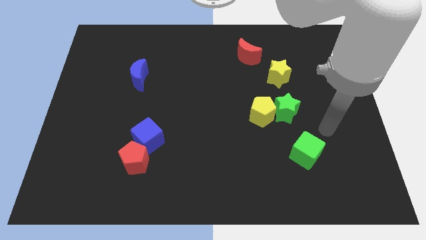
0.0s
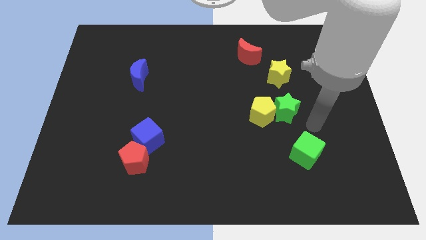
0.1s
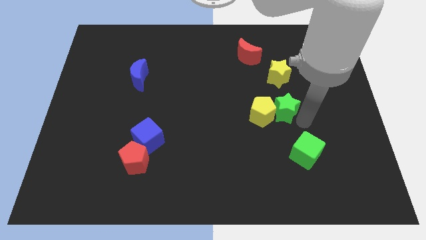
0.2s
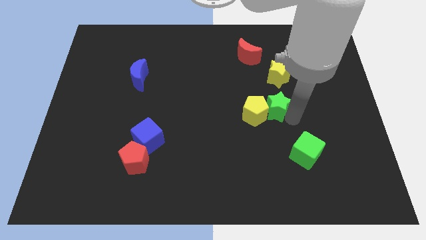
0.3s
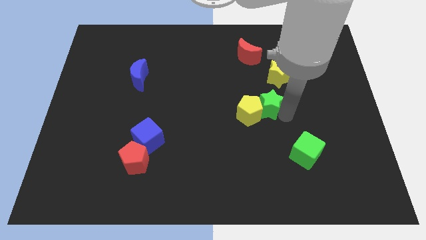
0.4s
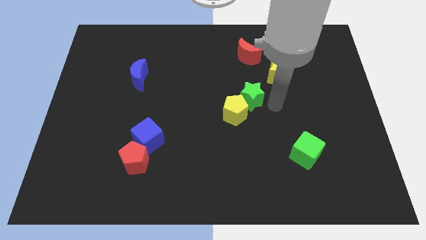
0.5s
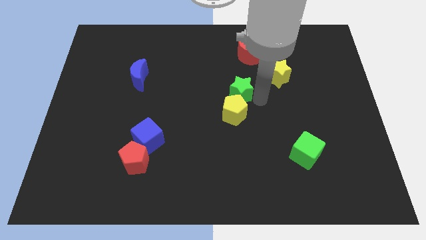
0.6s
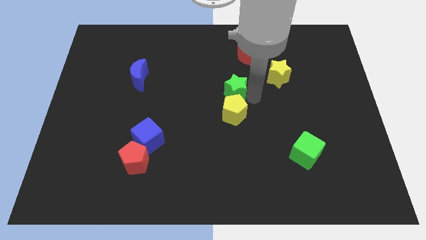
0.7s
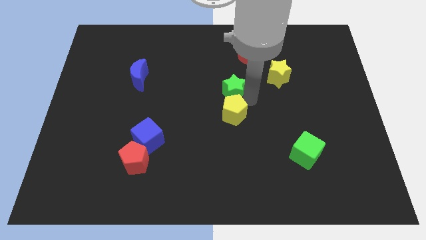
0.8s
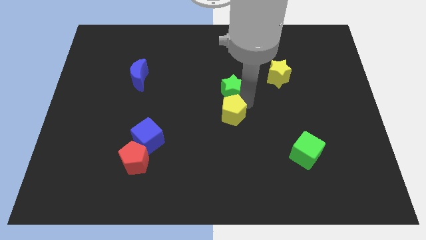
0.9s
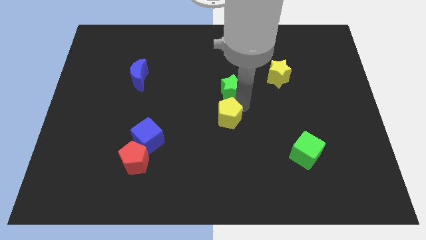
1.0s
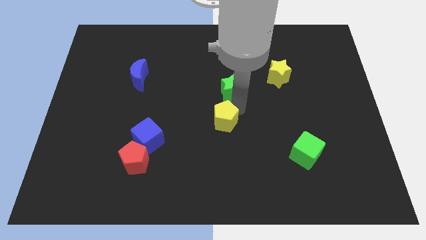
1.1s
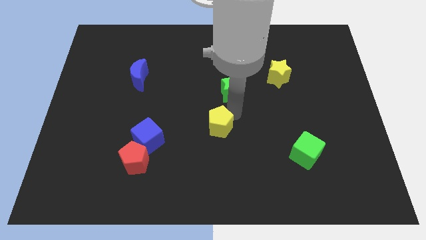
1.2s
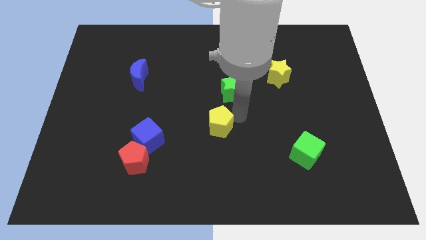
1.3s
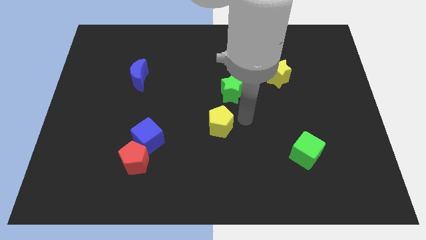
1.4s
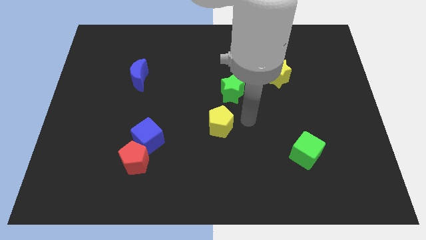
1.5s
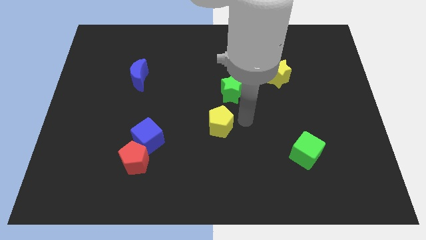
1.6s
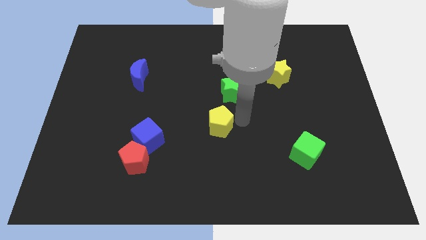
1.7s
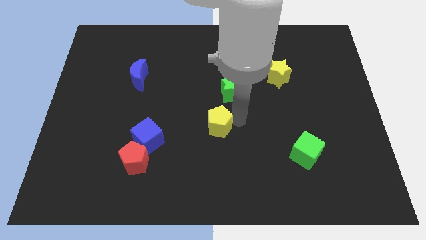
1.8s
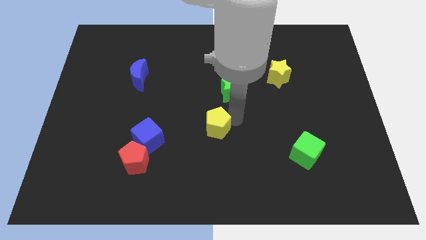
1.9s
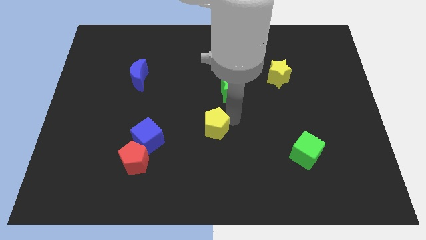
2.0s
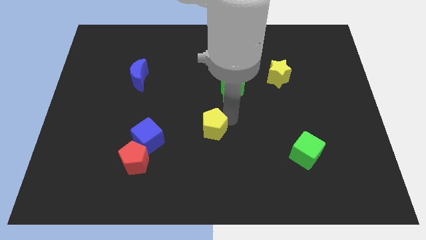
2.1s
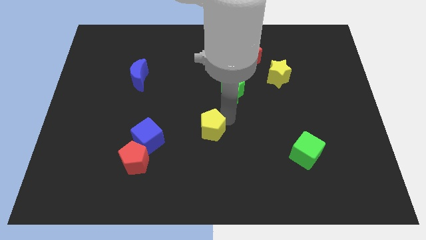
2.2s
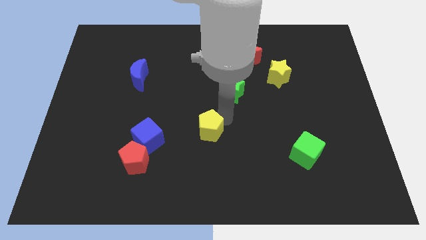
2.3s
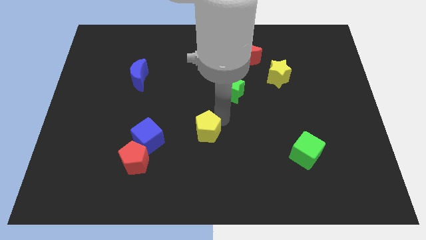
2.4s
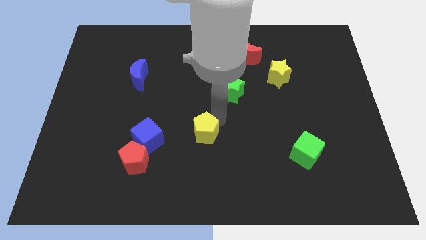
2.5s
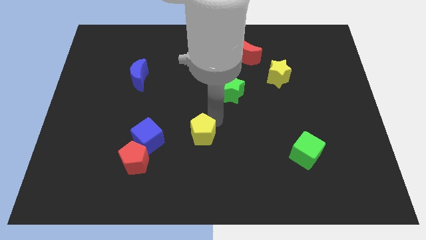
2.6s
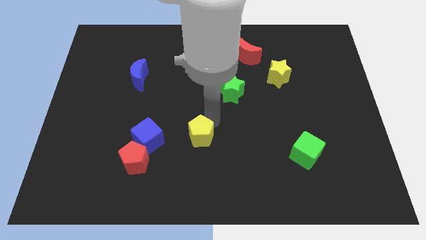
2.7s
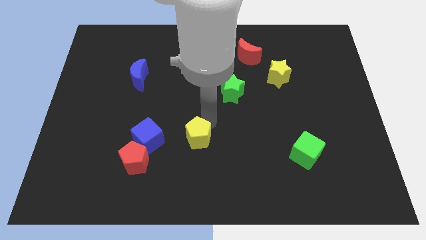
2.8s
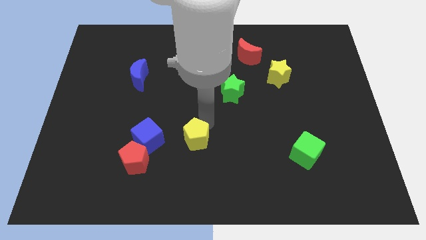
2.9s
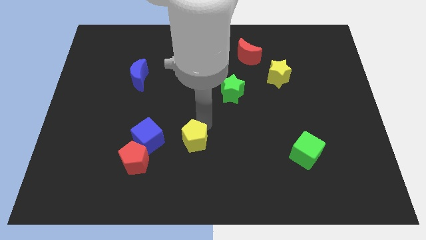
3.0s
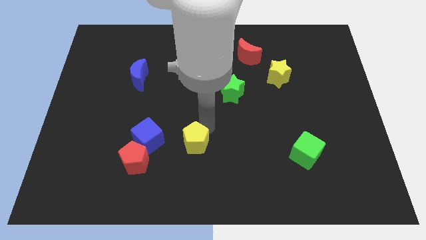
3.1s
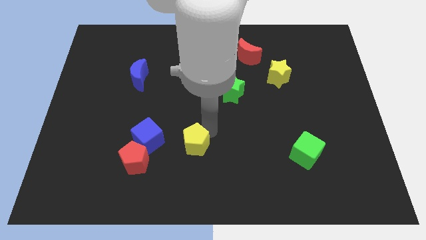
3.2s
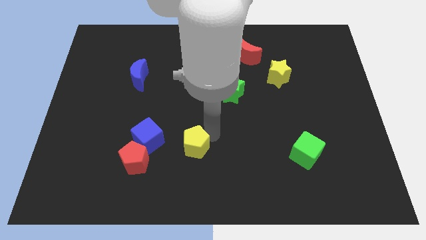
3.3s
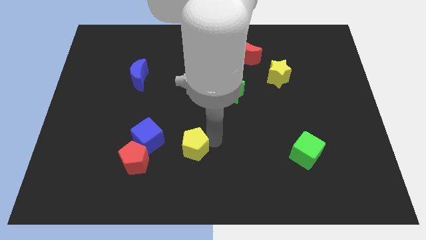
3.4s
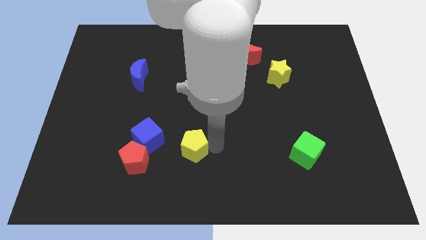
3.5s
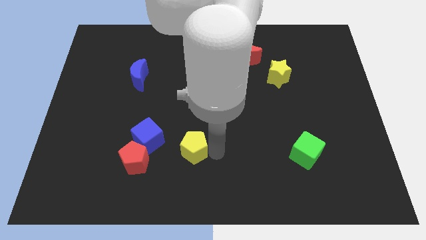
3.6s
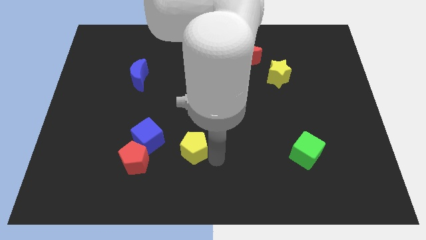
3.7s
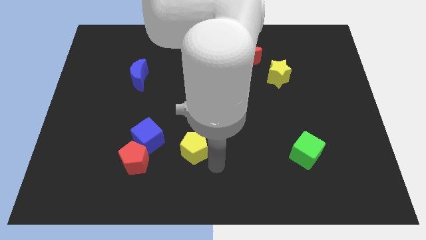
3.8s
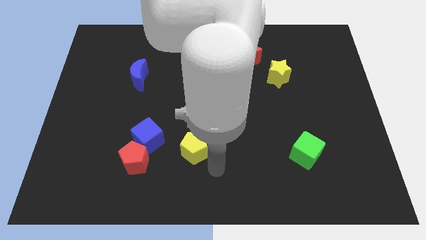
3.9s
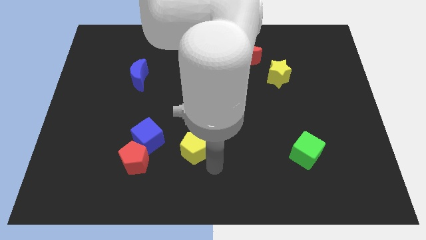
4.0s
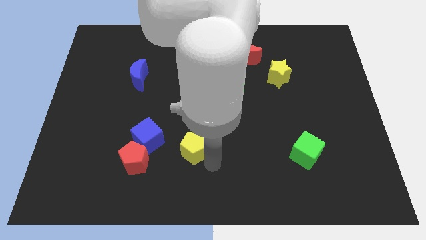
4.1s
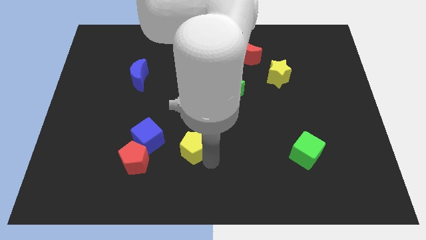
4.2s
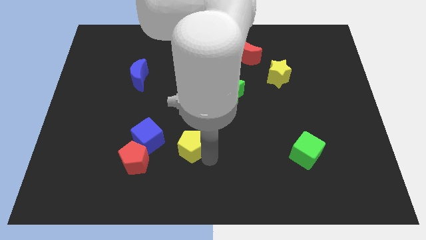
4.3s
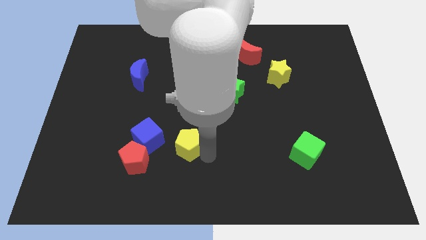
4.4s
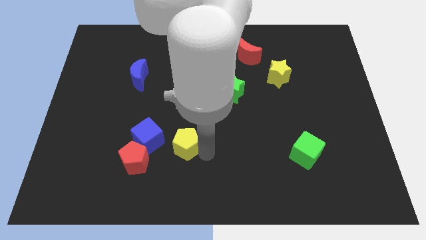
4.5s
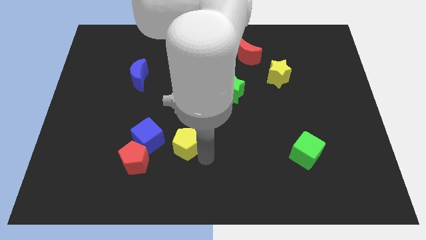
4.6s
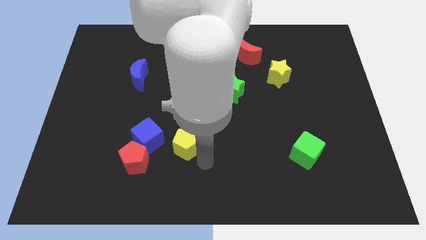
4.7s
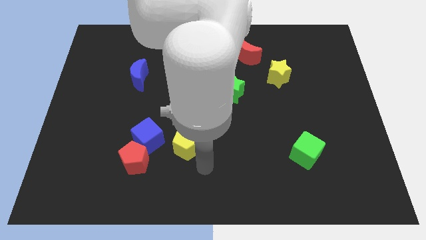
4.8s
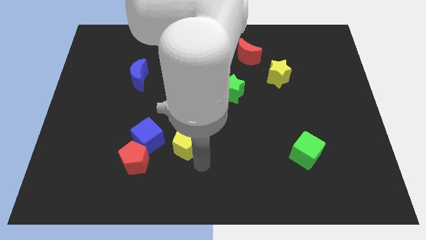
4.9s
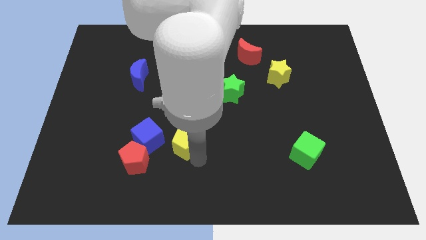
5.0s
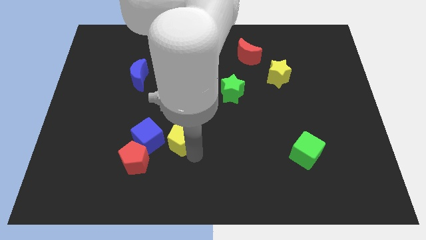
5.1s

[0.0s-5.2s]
slide the yellow pentagon diagonally up and to the right of the red pentagon

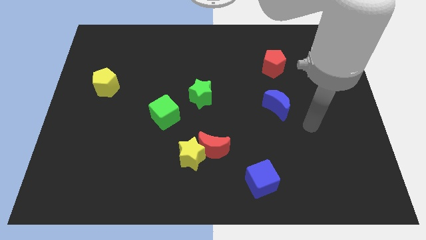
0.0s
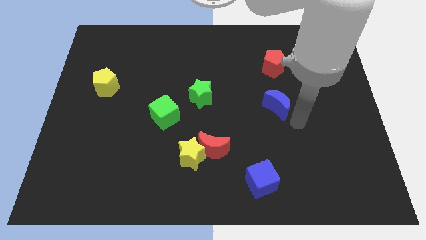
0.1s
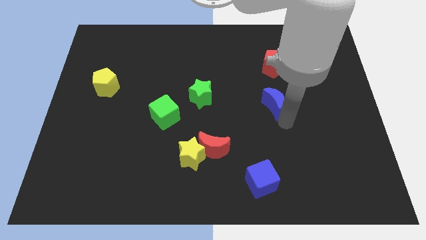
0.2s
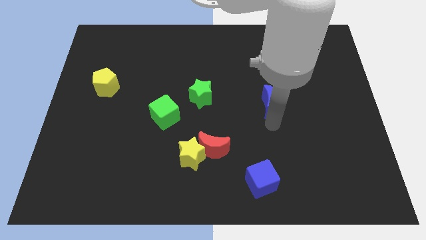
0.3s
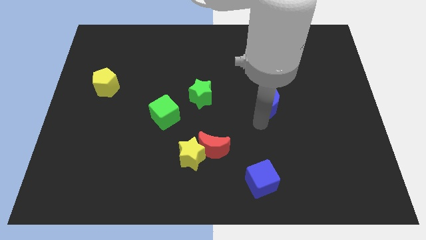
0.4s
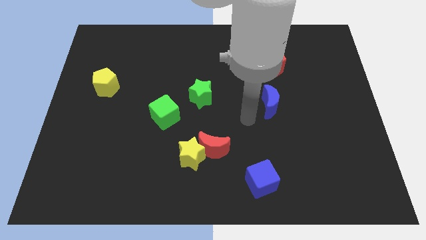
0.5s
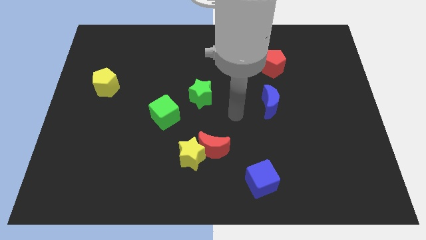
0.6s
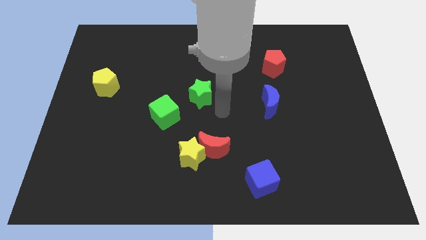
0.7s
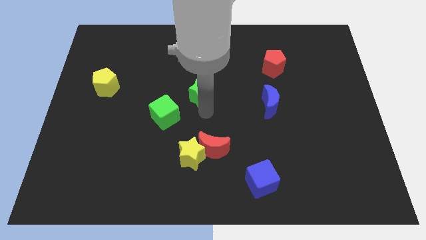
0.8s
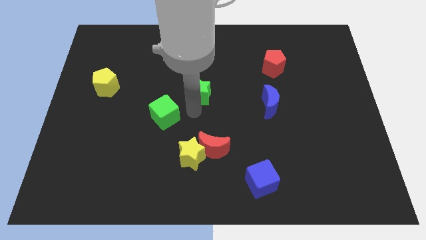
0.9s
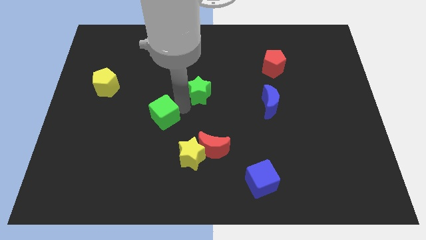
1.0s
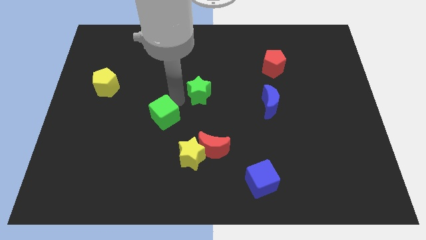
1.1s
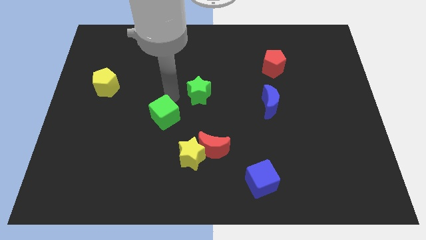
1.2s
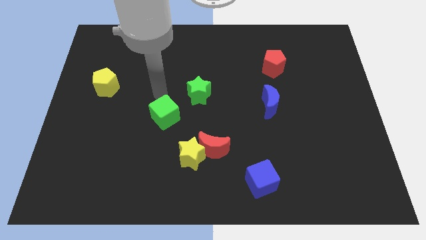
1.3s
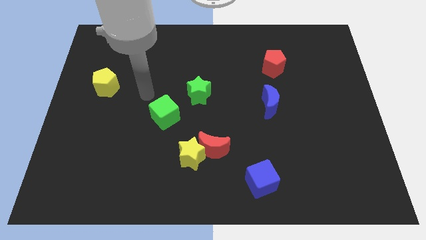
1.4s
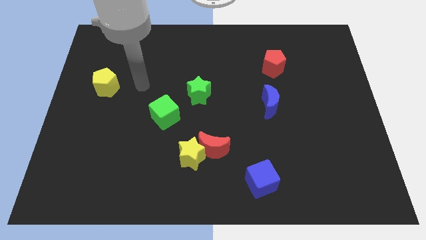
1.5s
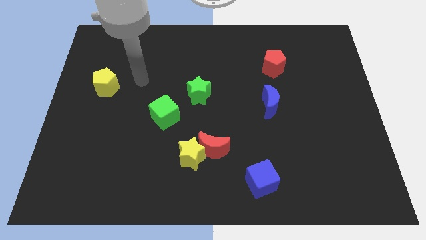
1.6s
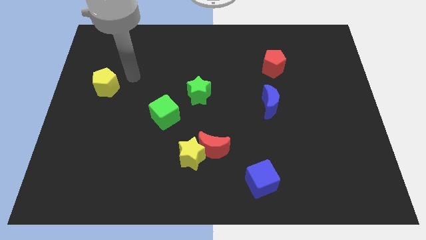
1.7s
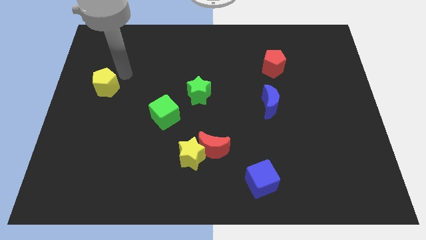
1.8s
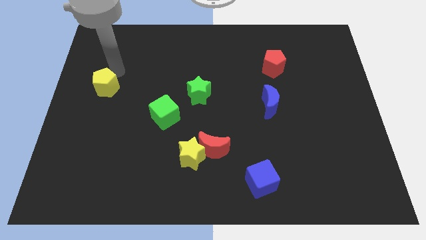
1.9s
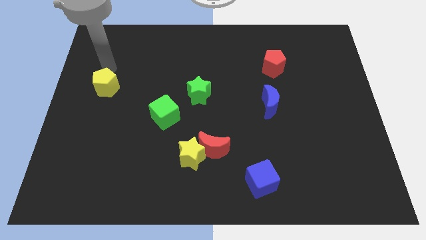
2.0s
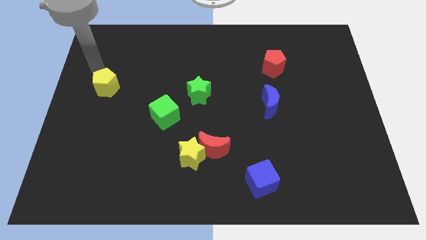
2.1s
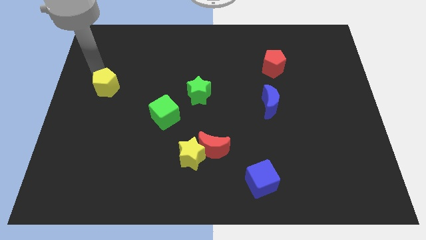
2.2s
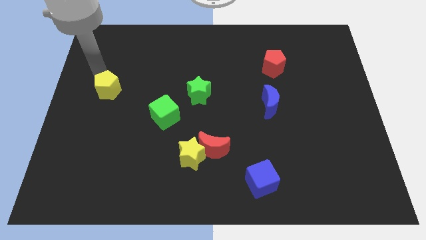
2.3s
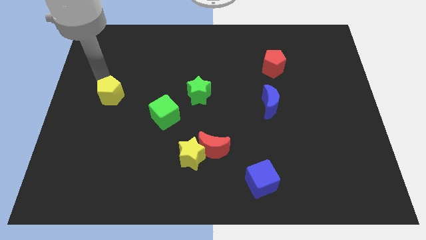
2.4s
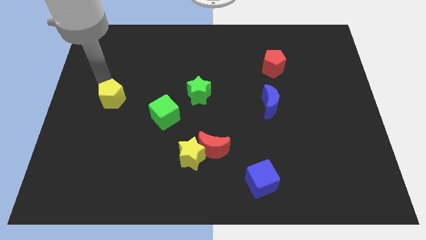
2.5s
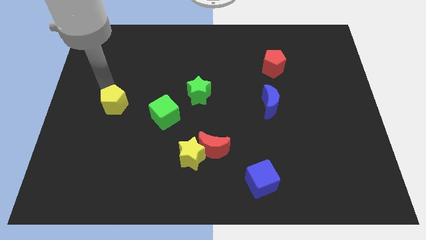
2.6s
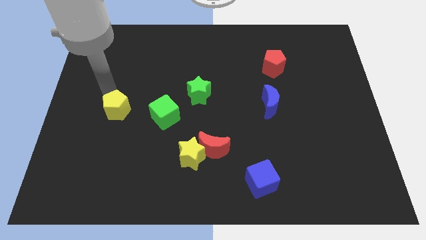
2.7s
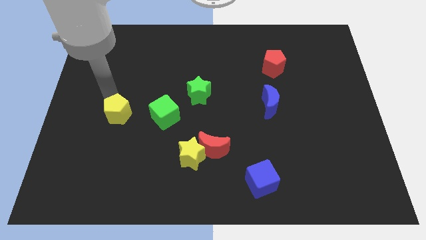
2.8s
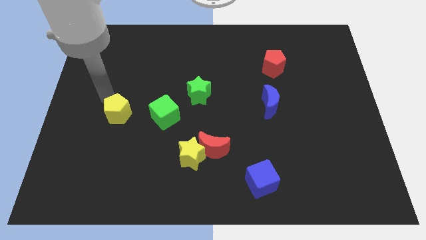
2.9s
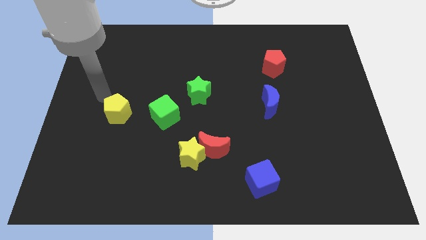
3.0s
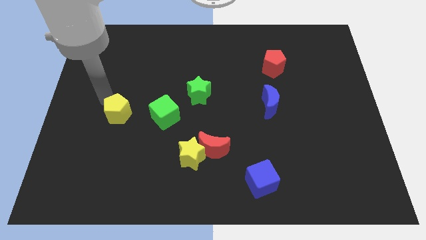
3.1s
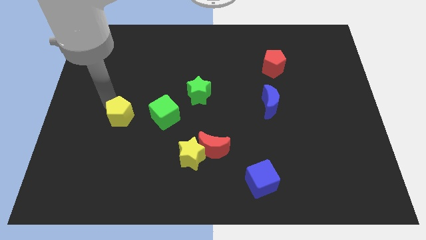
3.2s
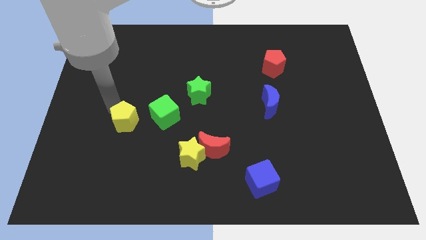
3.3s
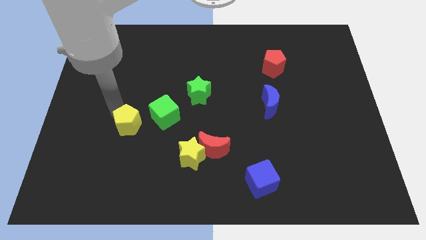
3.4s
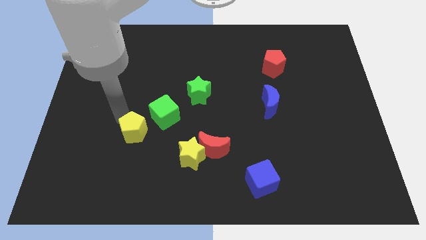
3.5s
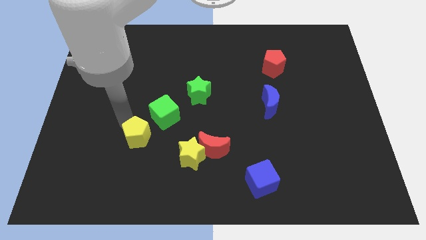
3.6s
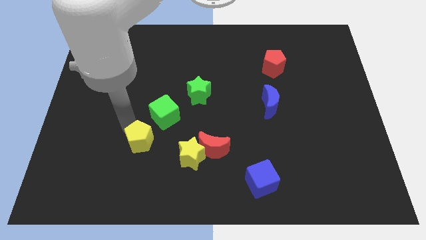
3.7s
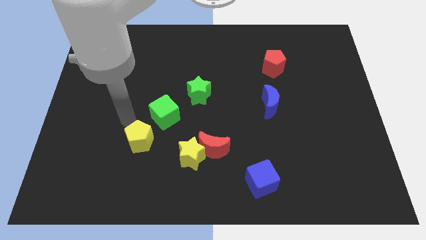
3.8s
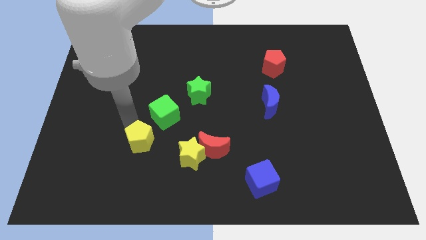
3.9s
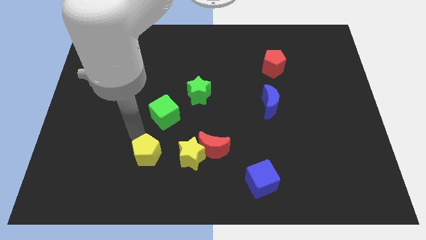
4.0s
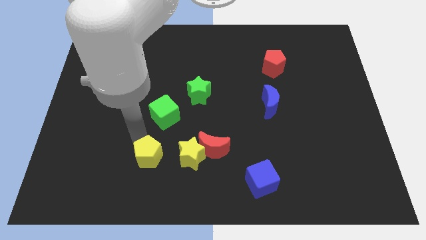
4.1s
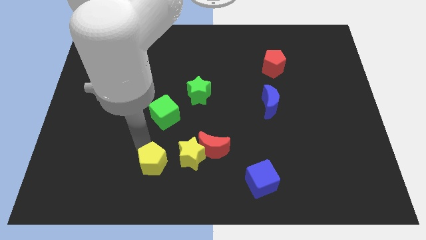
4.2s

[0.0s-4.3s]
move the yellow pentagon to the bottom left of the yellow star
